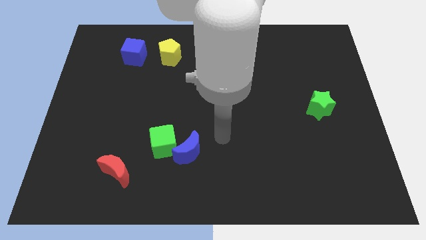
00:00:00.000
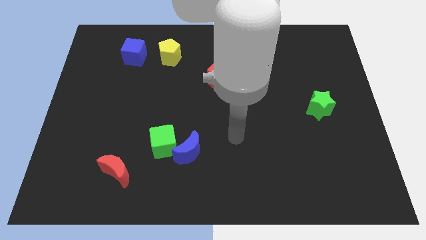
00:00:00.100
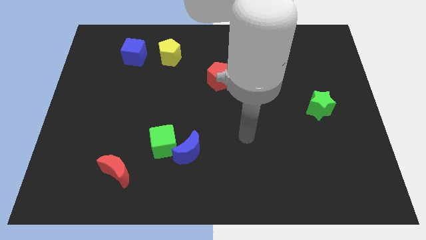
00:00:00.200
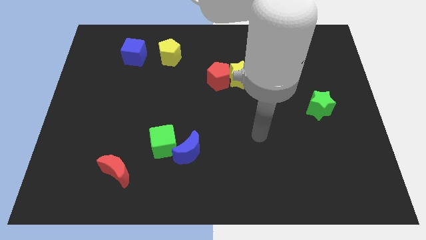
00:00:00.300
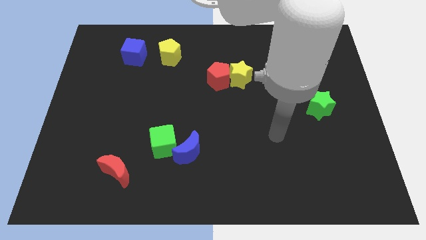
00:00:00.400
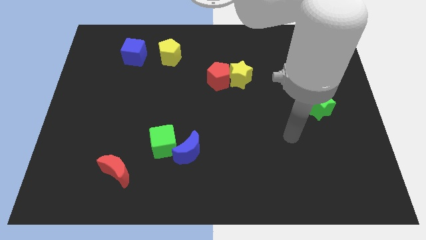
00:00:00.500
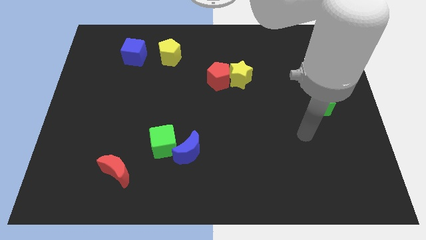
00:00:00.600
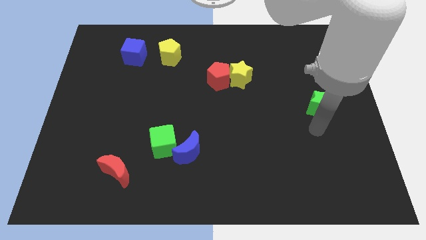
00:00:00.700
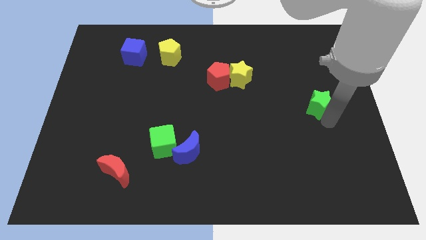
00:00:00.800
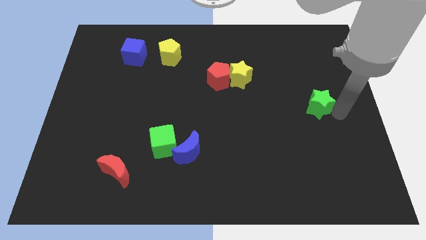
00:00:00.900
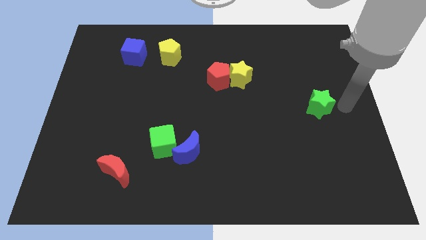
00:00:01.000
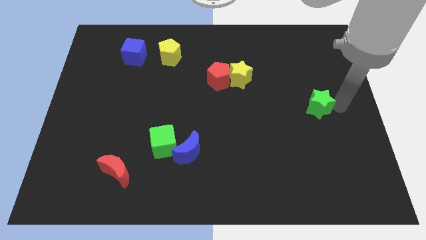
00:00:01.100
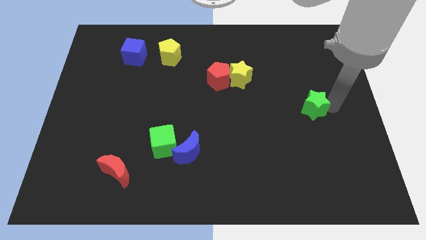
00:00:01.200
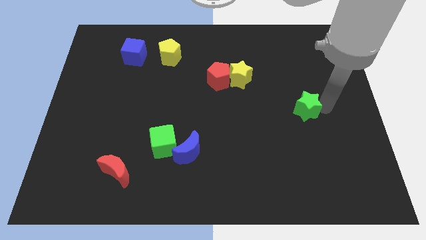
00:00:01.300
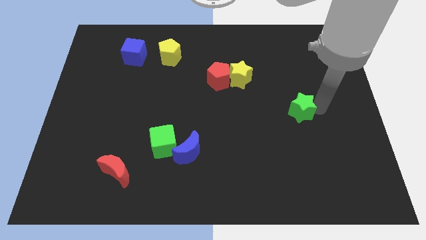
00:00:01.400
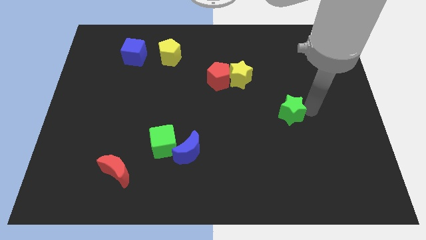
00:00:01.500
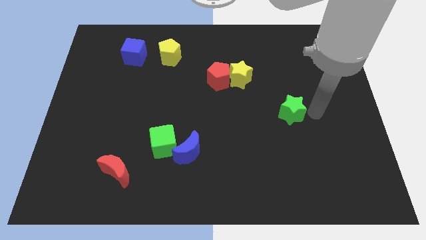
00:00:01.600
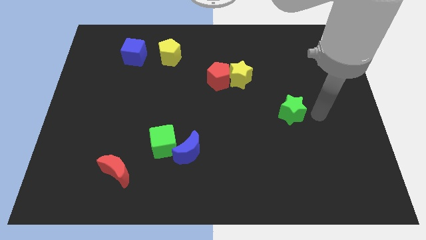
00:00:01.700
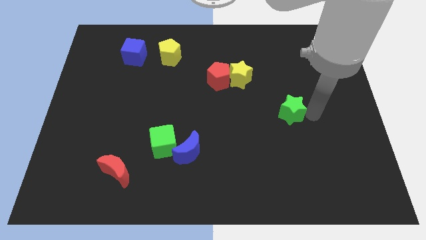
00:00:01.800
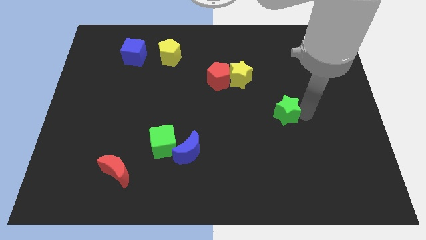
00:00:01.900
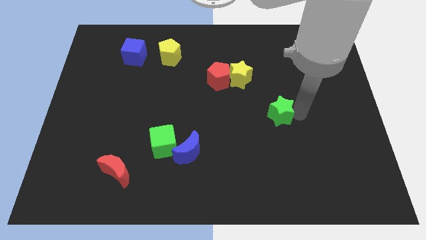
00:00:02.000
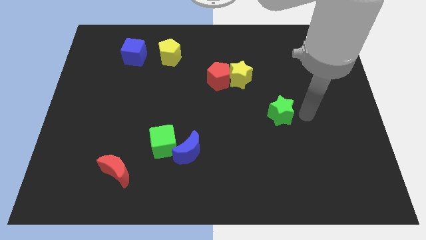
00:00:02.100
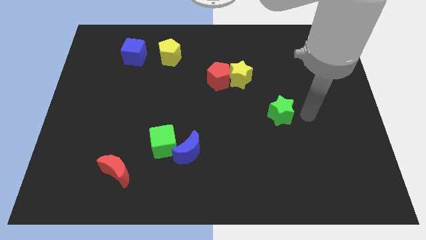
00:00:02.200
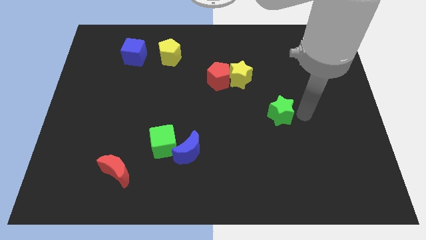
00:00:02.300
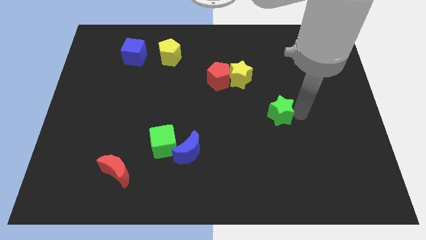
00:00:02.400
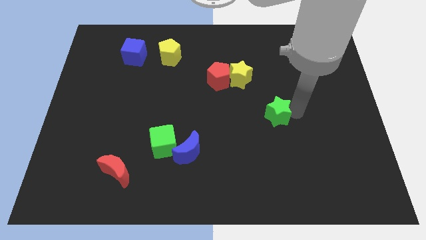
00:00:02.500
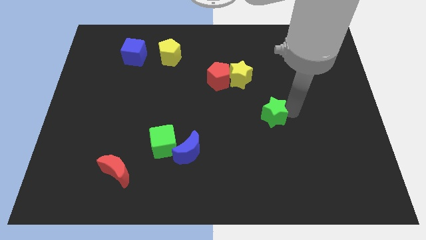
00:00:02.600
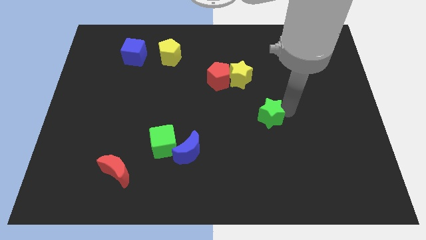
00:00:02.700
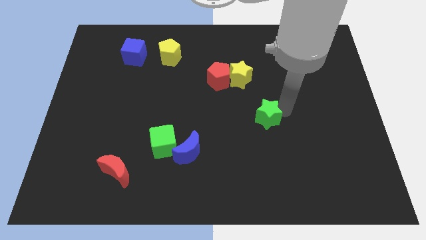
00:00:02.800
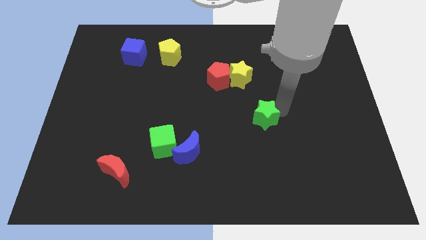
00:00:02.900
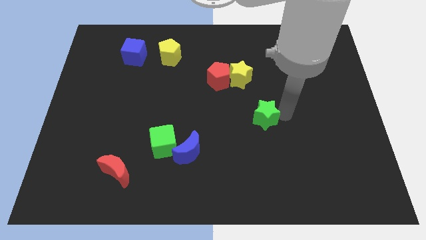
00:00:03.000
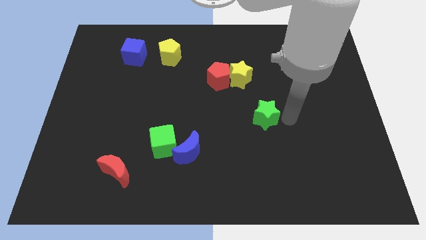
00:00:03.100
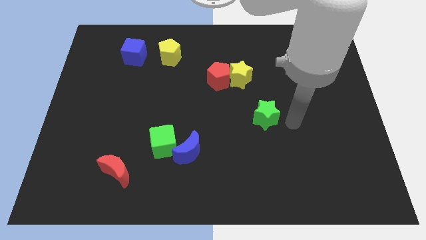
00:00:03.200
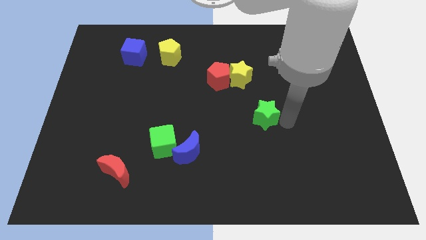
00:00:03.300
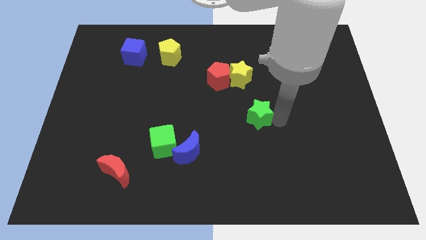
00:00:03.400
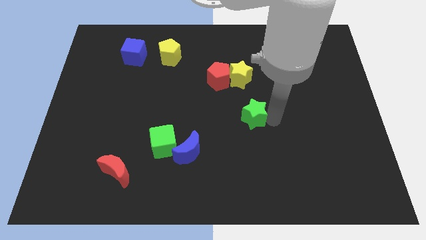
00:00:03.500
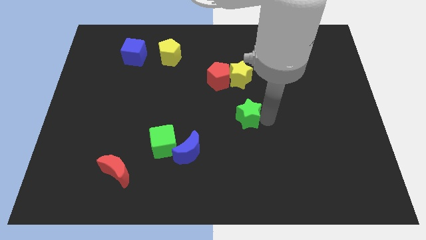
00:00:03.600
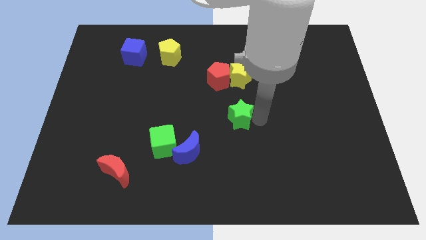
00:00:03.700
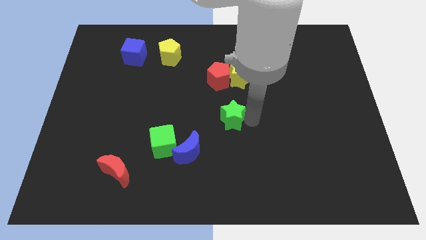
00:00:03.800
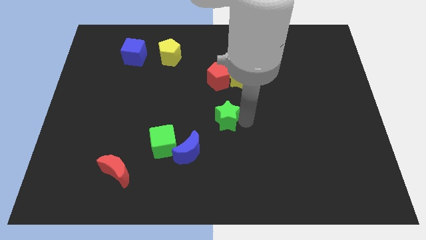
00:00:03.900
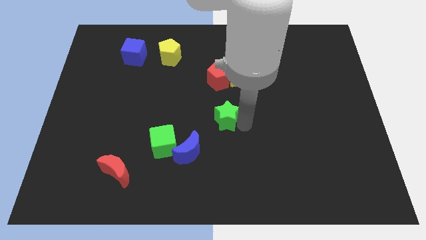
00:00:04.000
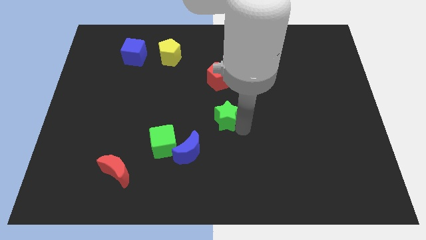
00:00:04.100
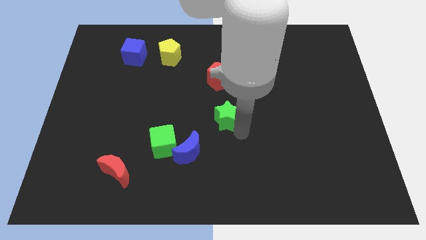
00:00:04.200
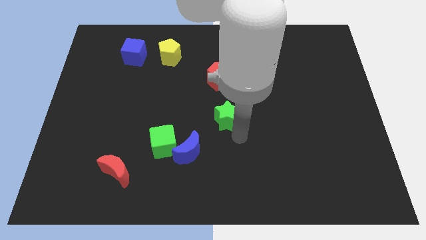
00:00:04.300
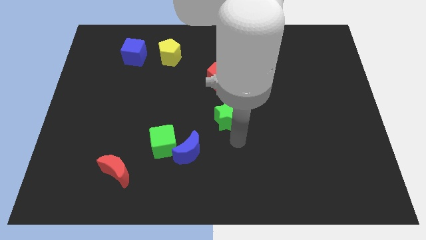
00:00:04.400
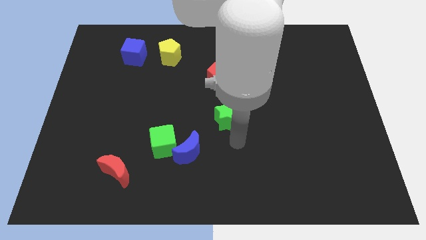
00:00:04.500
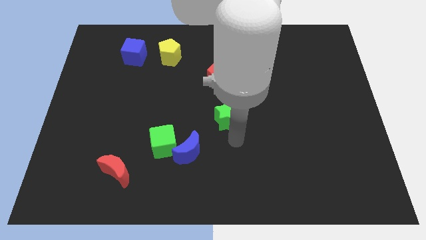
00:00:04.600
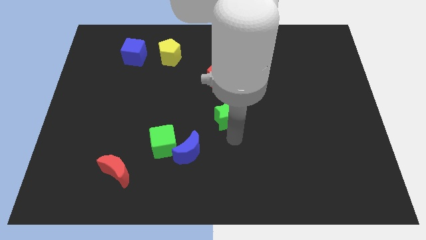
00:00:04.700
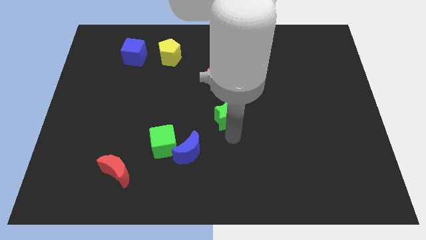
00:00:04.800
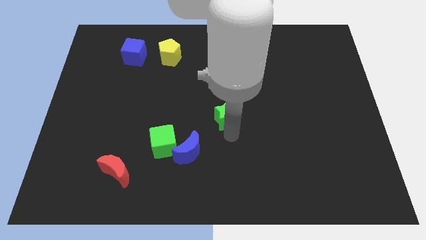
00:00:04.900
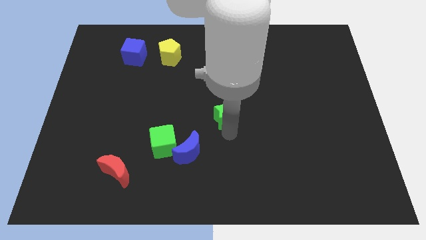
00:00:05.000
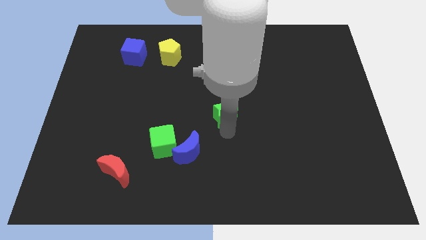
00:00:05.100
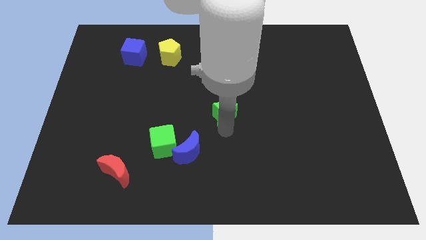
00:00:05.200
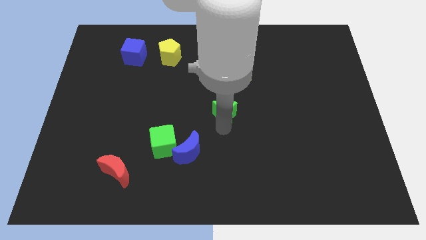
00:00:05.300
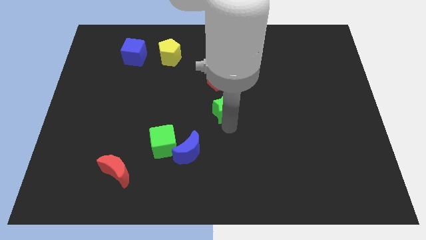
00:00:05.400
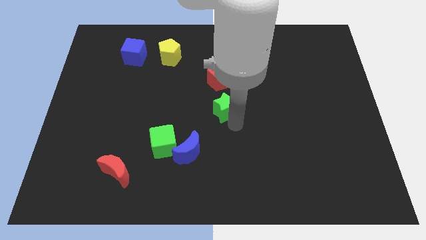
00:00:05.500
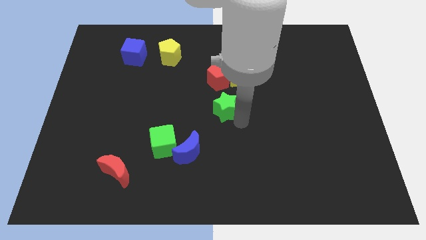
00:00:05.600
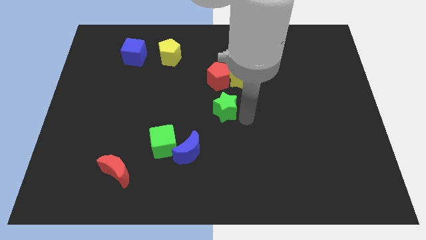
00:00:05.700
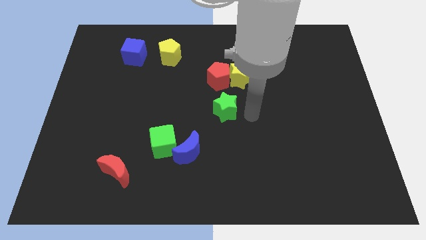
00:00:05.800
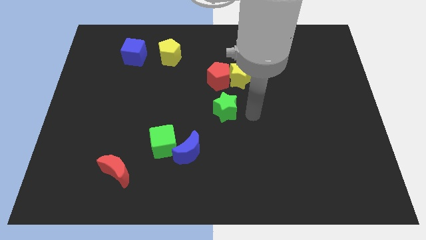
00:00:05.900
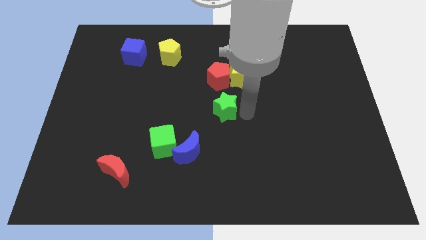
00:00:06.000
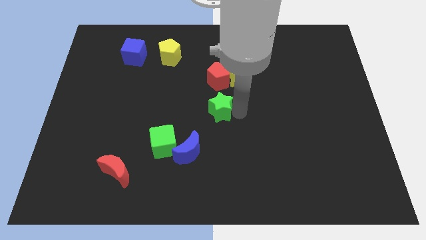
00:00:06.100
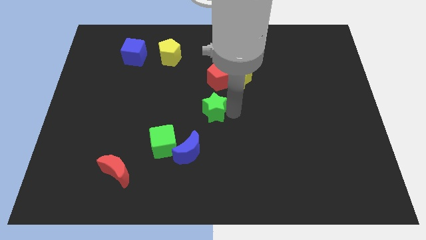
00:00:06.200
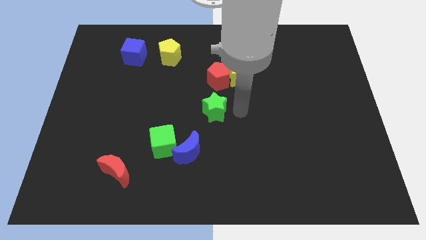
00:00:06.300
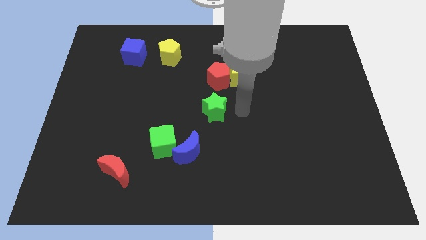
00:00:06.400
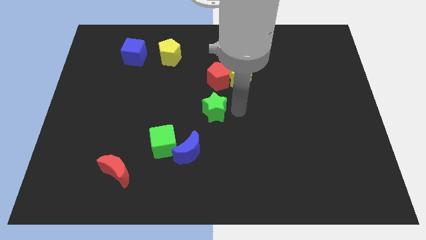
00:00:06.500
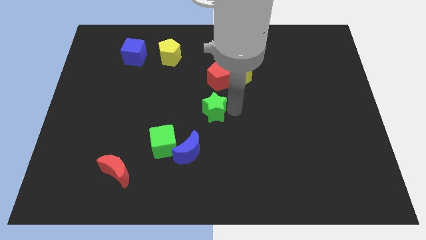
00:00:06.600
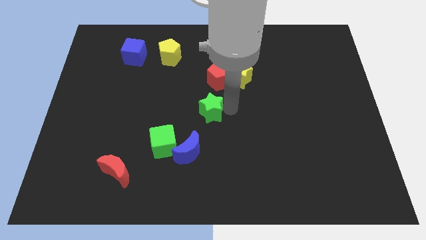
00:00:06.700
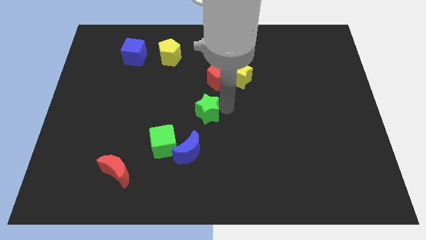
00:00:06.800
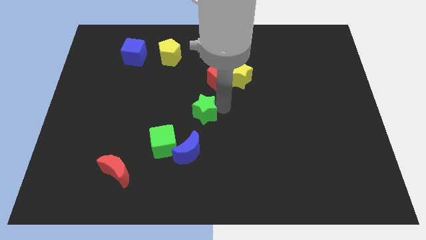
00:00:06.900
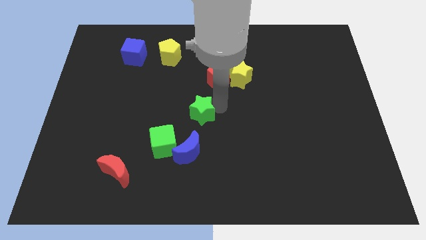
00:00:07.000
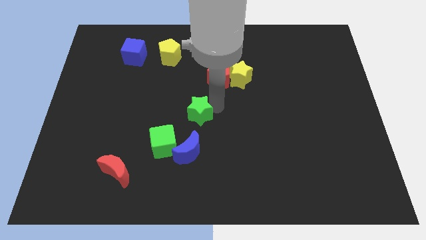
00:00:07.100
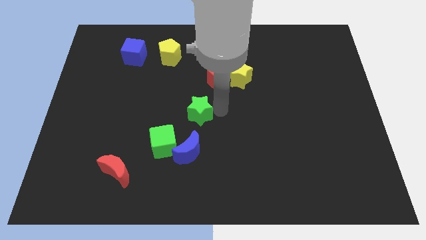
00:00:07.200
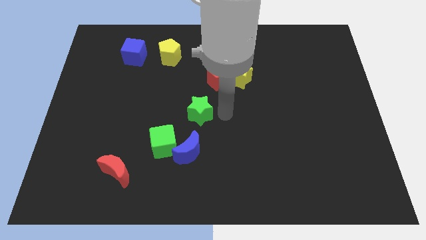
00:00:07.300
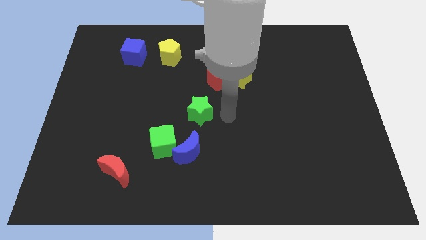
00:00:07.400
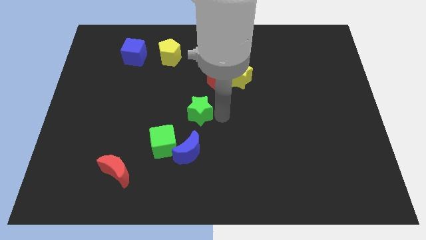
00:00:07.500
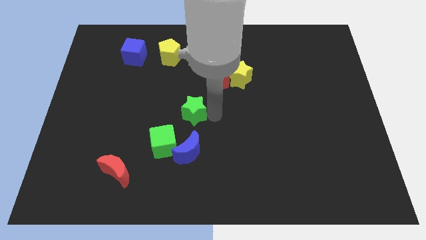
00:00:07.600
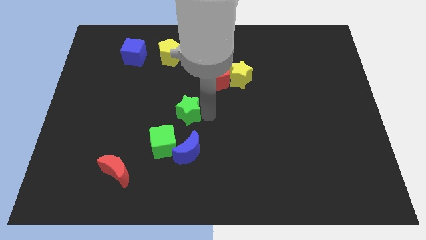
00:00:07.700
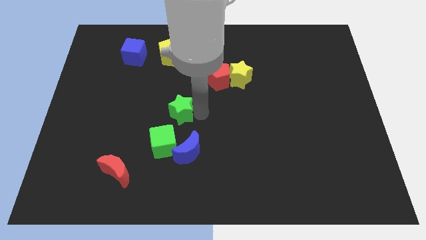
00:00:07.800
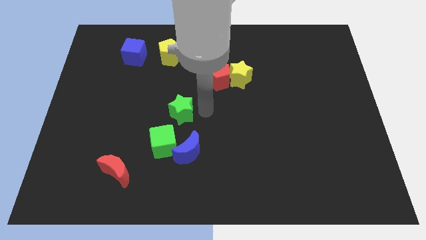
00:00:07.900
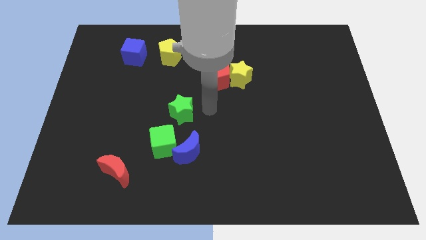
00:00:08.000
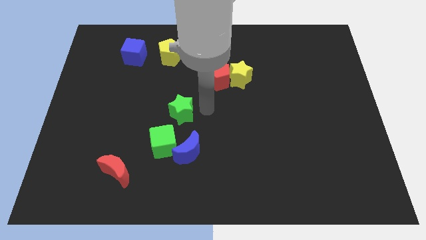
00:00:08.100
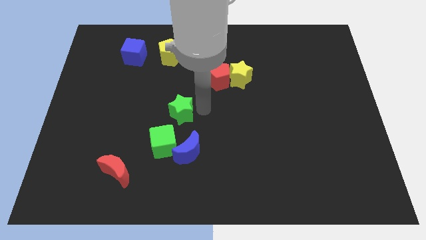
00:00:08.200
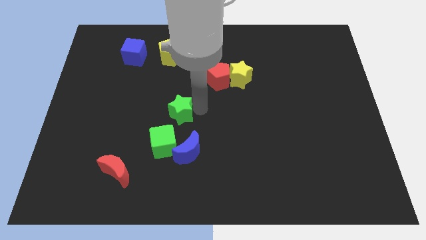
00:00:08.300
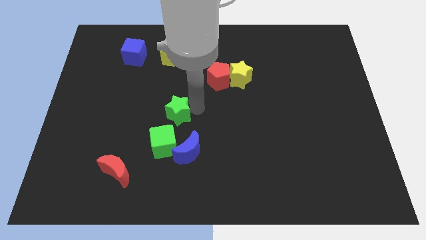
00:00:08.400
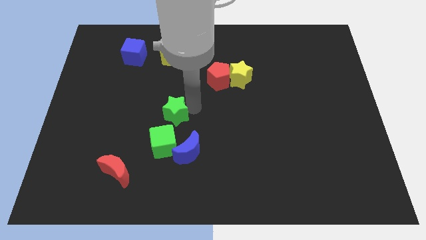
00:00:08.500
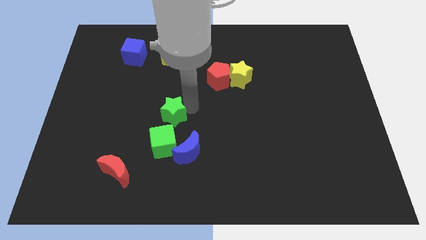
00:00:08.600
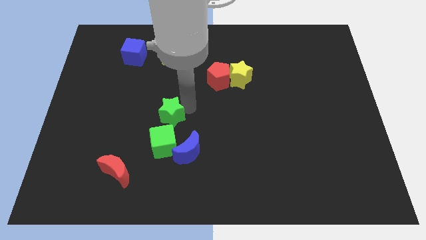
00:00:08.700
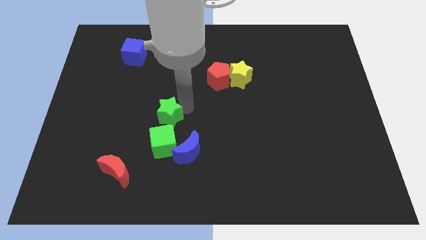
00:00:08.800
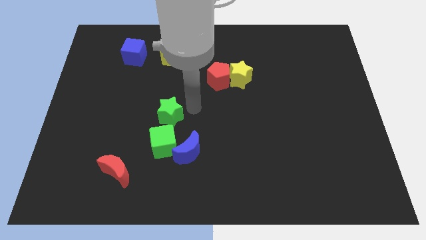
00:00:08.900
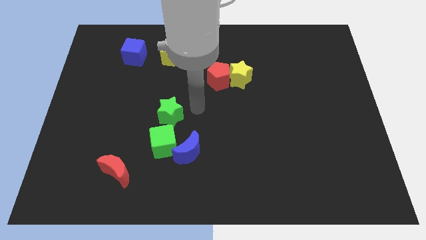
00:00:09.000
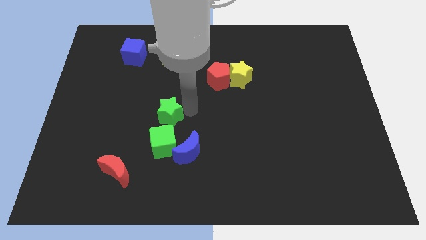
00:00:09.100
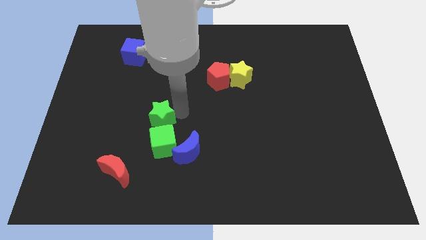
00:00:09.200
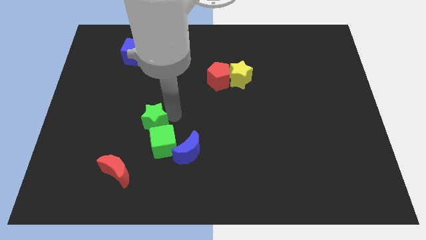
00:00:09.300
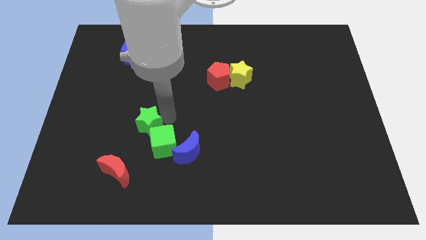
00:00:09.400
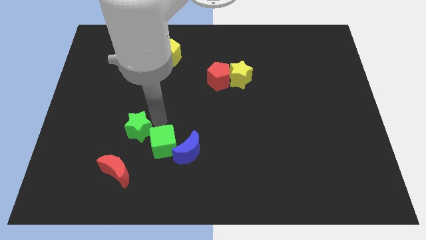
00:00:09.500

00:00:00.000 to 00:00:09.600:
put the green star left of the green cube
